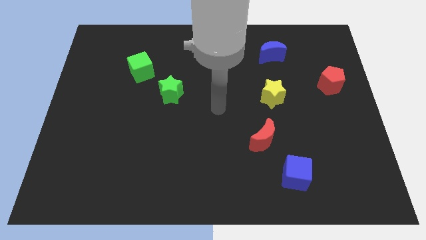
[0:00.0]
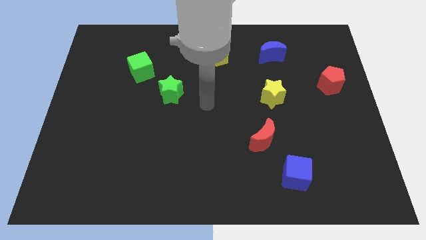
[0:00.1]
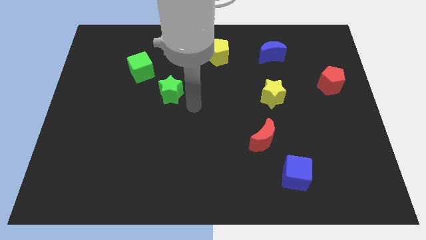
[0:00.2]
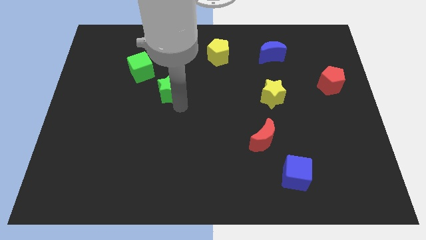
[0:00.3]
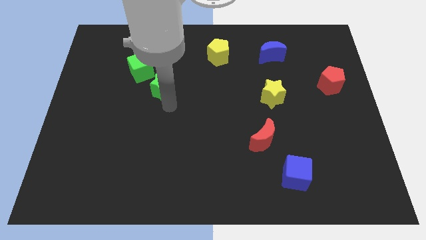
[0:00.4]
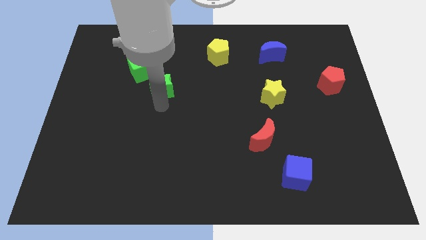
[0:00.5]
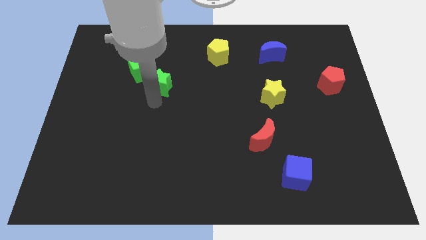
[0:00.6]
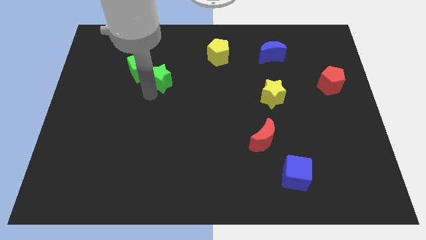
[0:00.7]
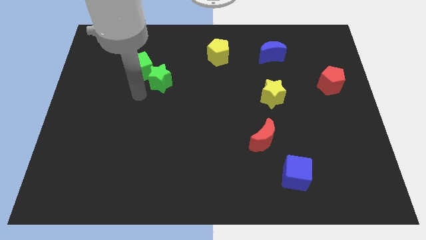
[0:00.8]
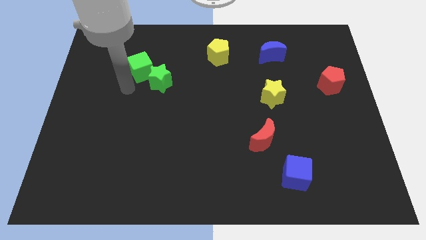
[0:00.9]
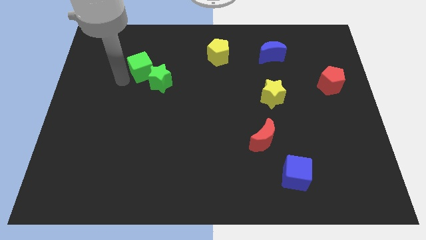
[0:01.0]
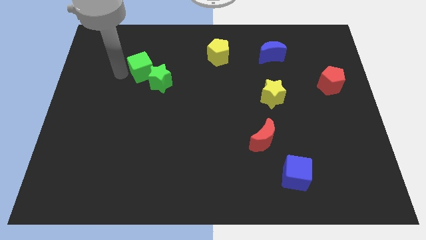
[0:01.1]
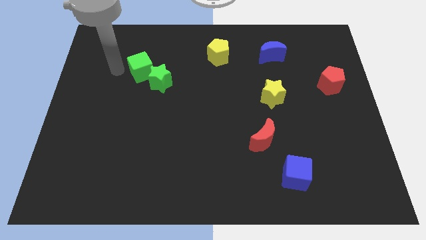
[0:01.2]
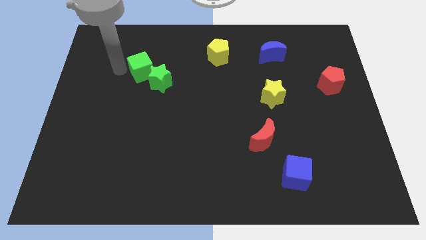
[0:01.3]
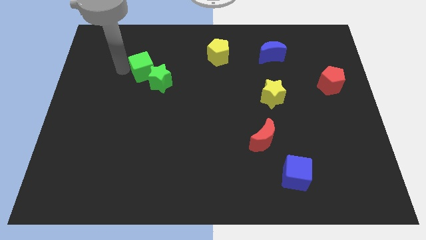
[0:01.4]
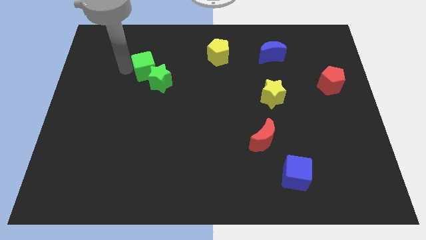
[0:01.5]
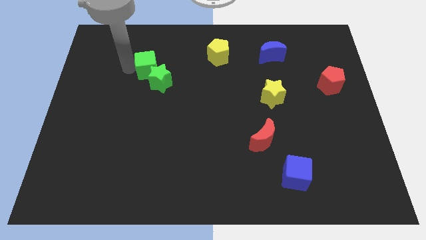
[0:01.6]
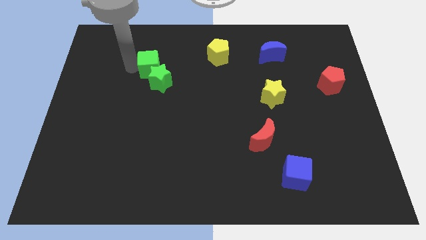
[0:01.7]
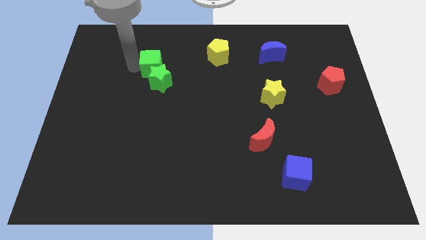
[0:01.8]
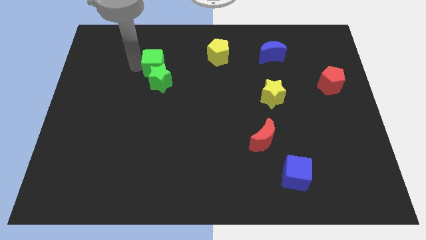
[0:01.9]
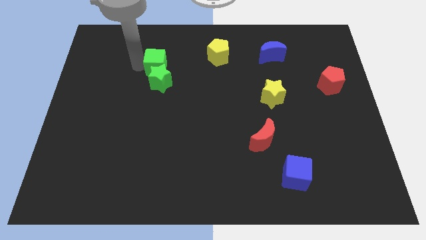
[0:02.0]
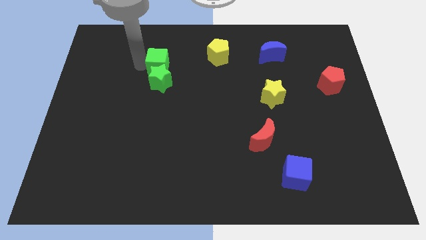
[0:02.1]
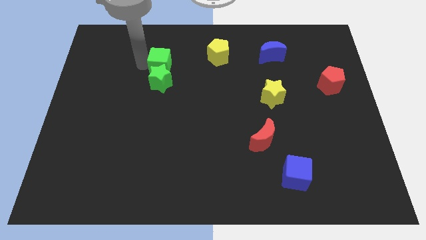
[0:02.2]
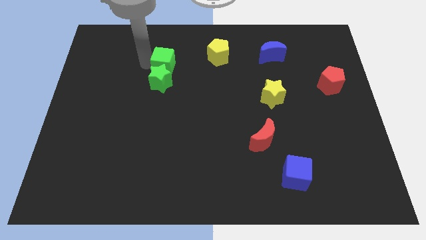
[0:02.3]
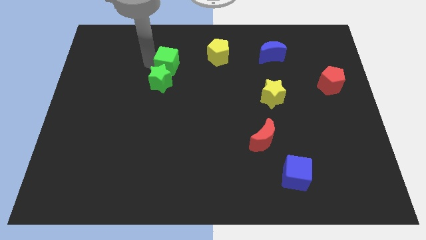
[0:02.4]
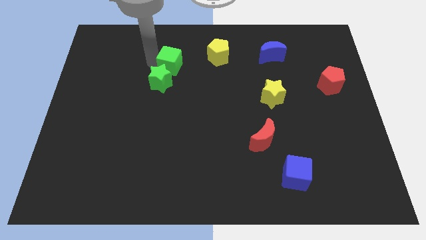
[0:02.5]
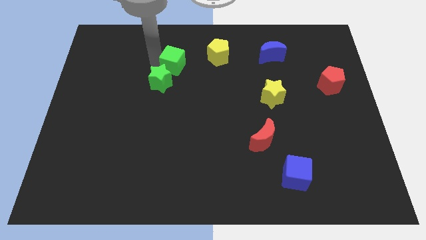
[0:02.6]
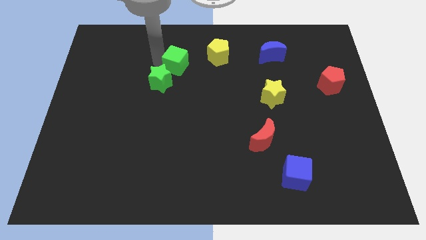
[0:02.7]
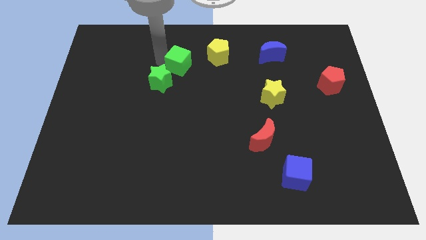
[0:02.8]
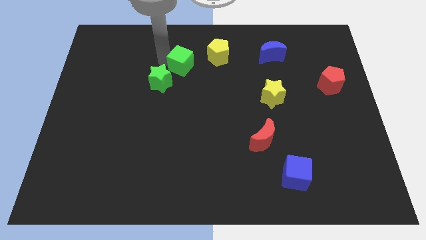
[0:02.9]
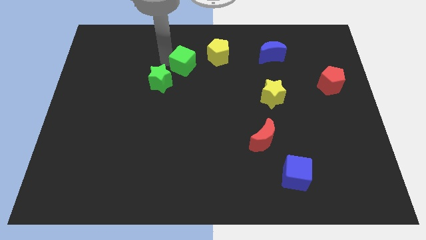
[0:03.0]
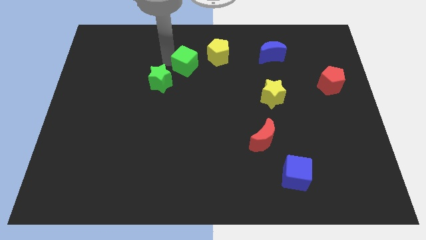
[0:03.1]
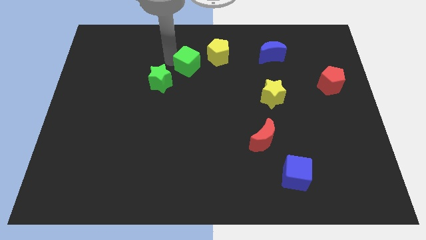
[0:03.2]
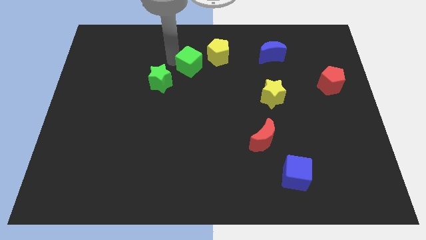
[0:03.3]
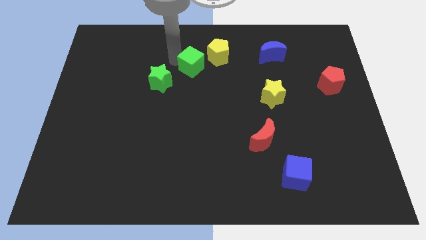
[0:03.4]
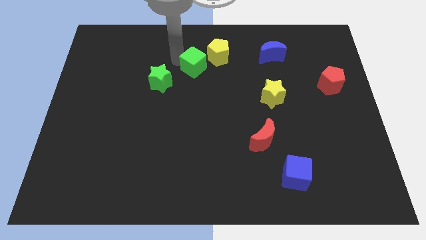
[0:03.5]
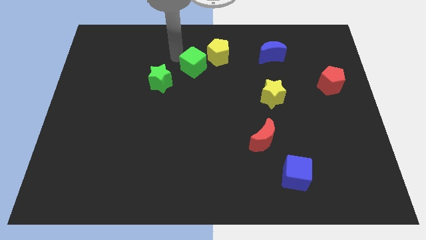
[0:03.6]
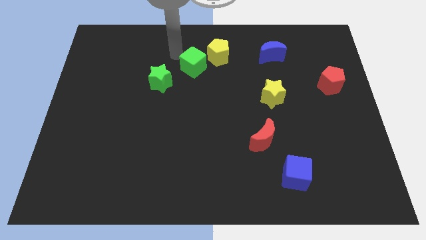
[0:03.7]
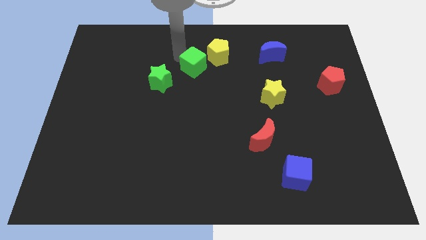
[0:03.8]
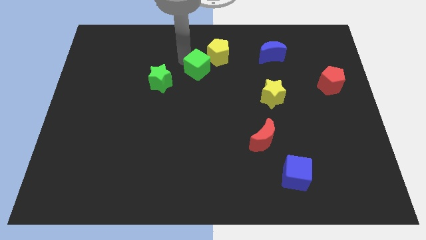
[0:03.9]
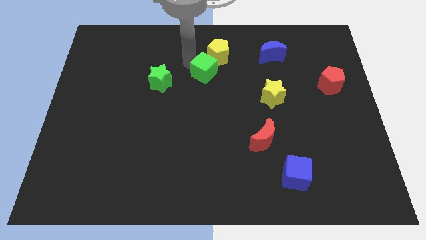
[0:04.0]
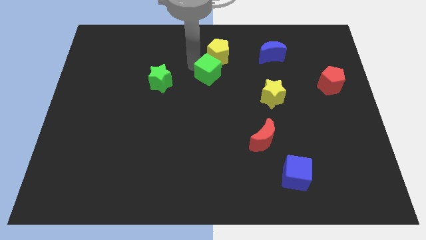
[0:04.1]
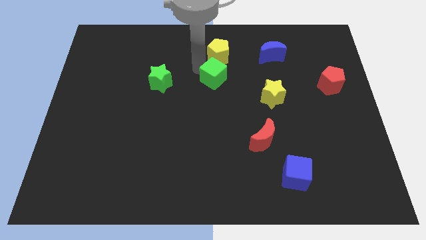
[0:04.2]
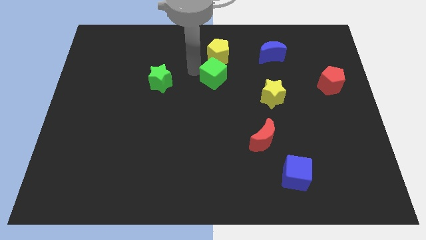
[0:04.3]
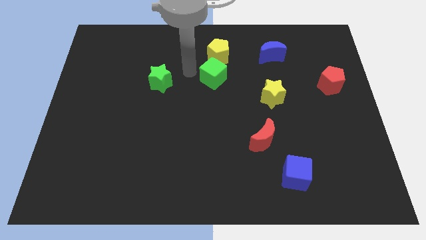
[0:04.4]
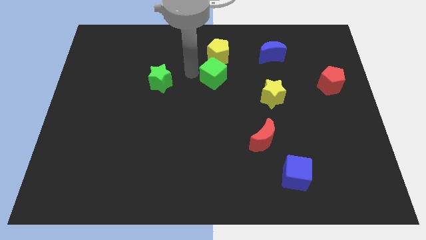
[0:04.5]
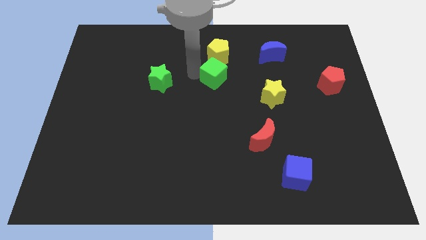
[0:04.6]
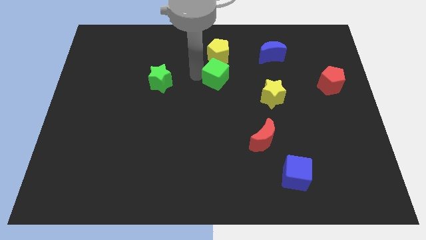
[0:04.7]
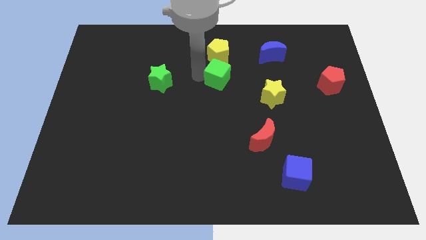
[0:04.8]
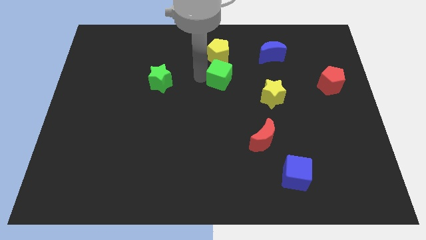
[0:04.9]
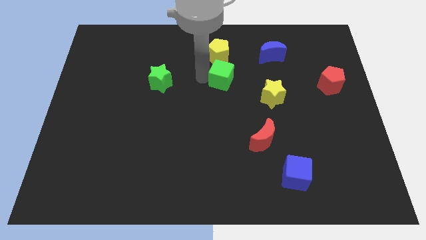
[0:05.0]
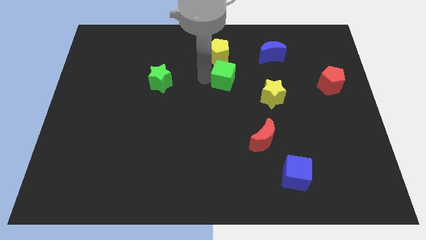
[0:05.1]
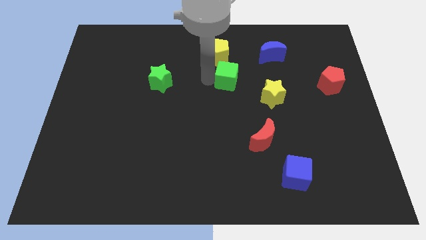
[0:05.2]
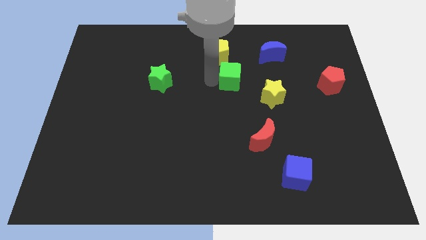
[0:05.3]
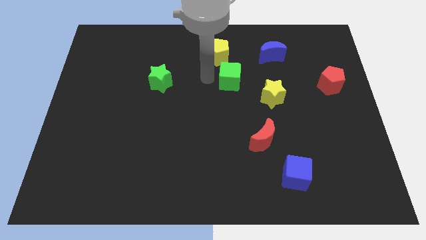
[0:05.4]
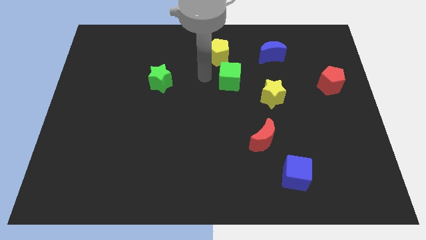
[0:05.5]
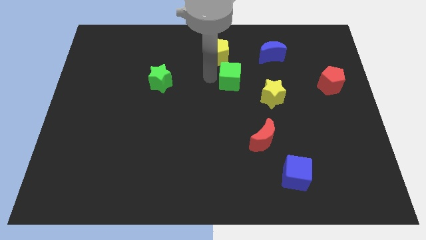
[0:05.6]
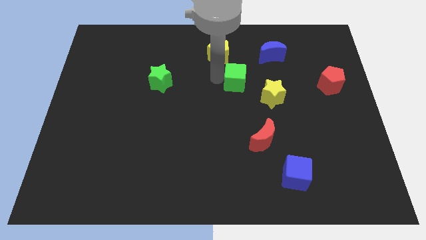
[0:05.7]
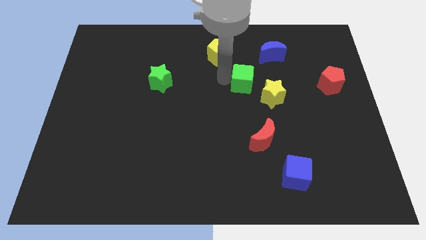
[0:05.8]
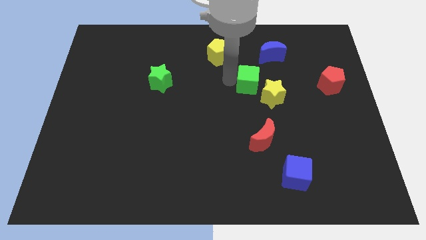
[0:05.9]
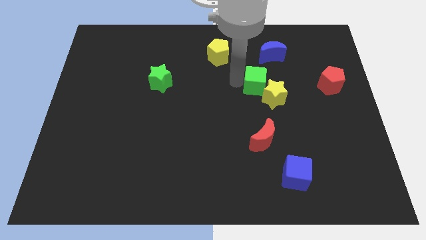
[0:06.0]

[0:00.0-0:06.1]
push the green cube below the blue moon

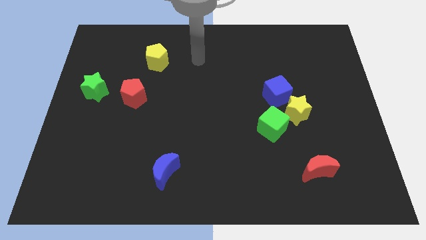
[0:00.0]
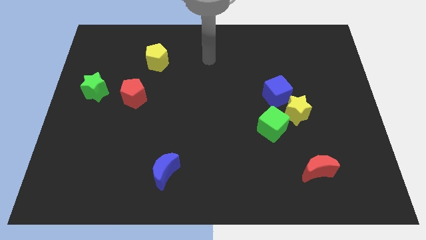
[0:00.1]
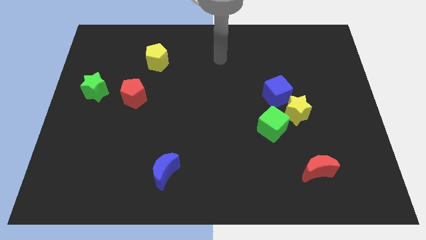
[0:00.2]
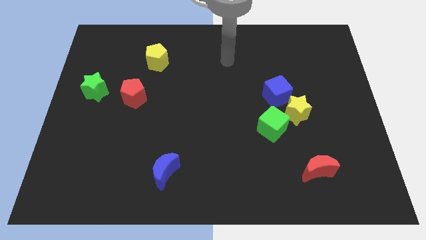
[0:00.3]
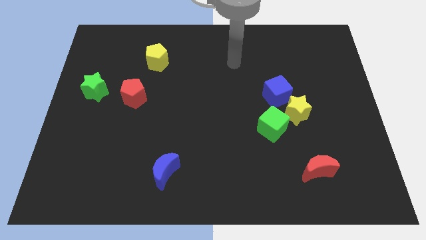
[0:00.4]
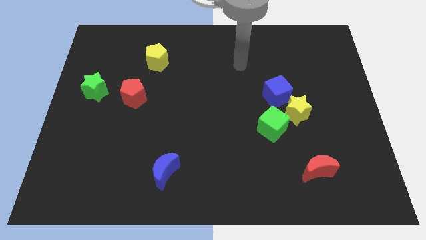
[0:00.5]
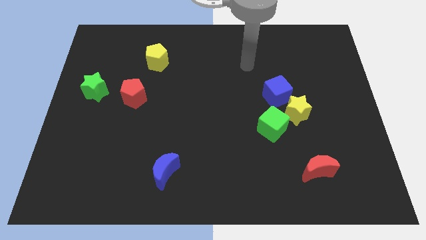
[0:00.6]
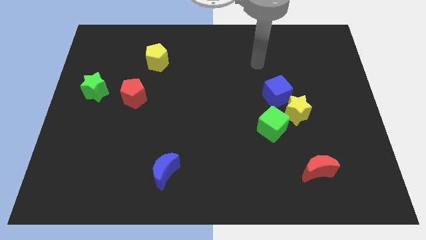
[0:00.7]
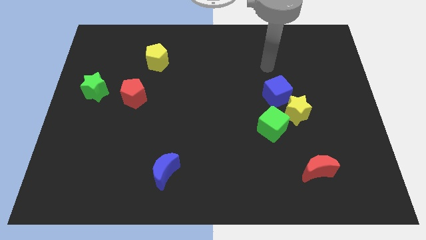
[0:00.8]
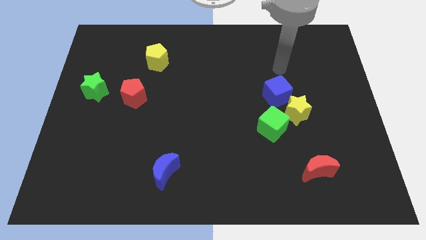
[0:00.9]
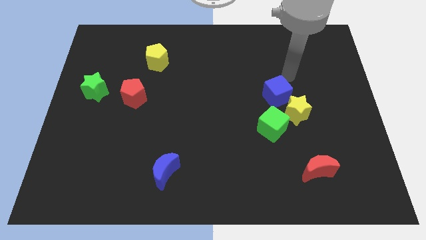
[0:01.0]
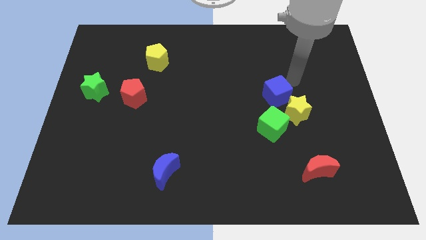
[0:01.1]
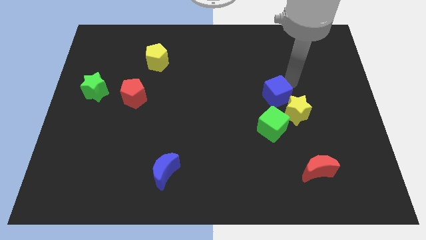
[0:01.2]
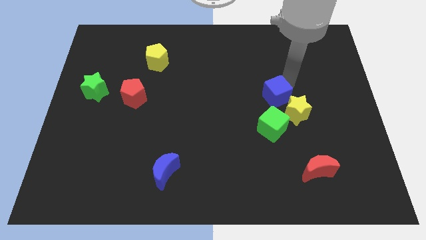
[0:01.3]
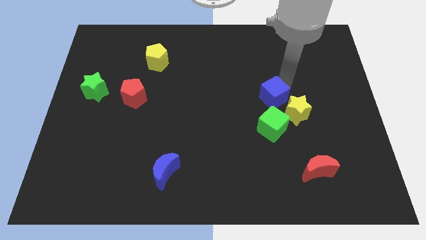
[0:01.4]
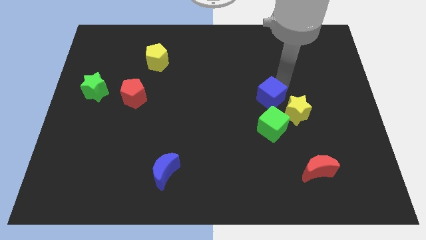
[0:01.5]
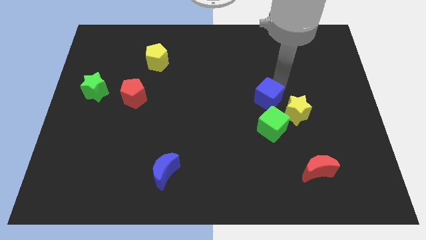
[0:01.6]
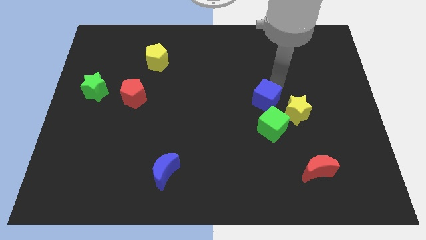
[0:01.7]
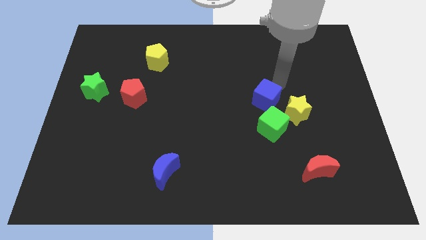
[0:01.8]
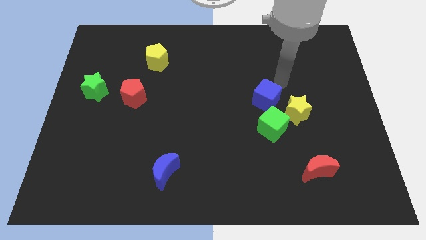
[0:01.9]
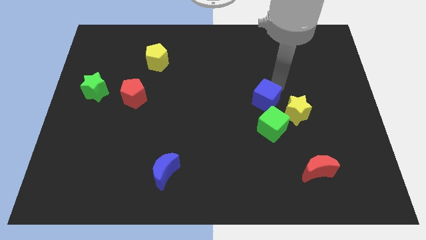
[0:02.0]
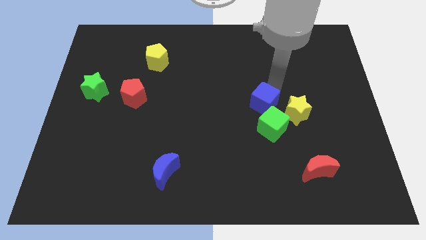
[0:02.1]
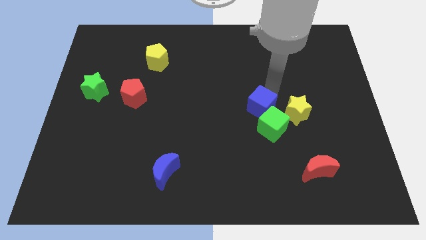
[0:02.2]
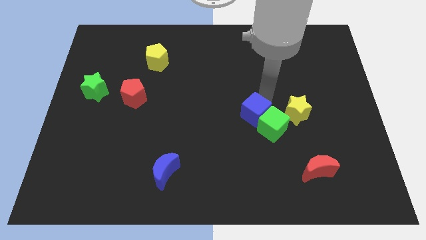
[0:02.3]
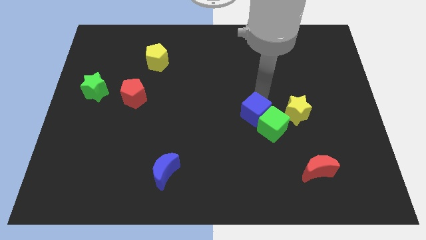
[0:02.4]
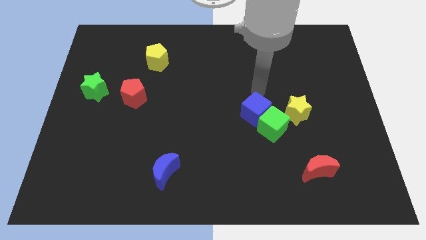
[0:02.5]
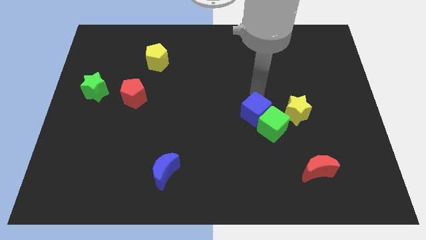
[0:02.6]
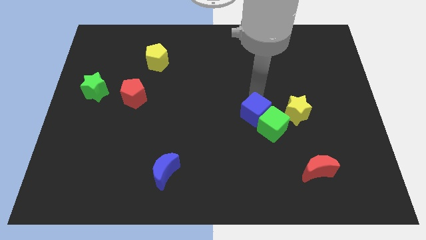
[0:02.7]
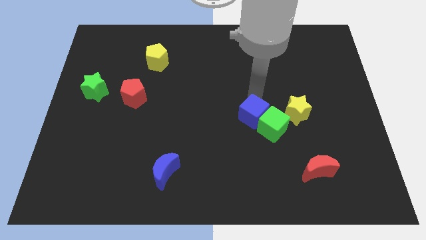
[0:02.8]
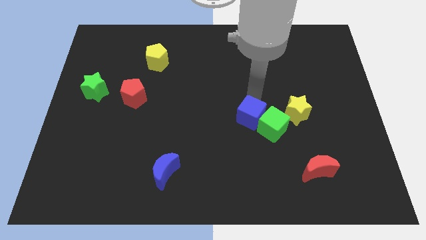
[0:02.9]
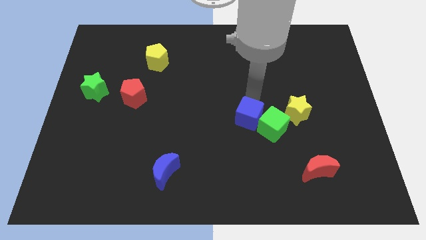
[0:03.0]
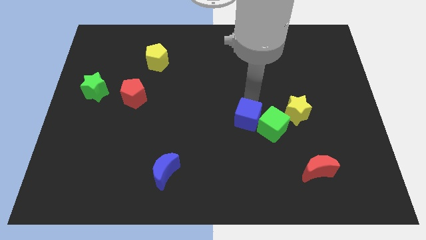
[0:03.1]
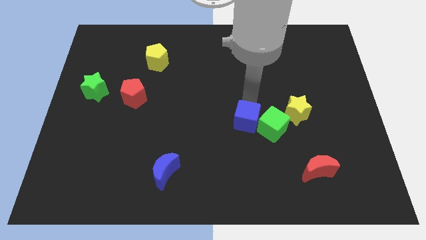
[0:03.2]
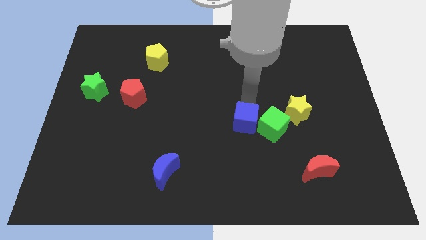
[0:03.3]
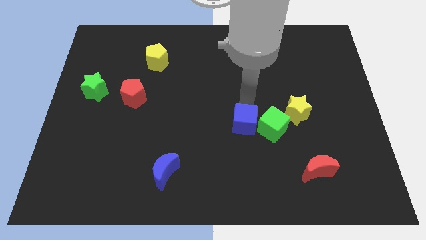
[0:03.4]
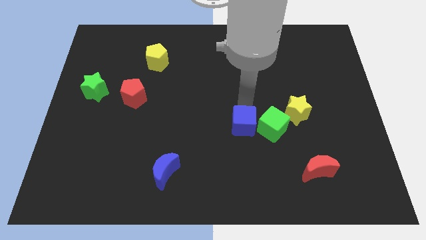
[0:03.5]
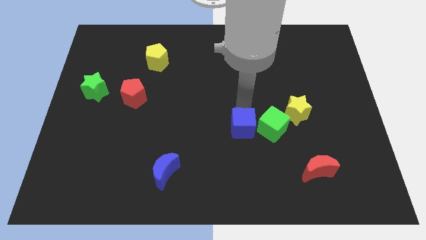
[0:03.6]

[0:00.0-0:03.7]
slide the blue cube diagonally down and to the left of the green cube
